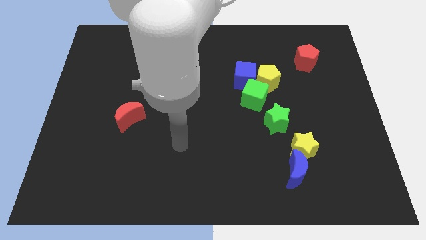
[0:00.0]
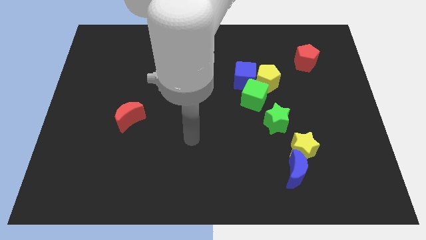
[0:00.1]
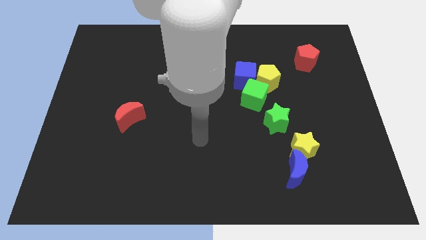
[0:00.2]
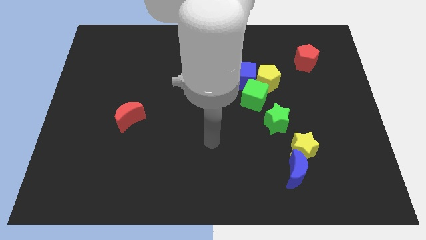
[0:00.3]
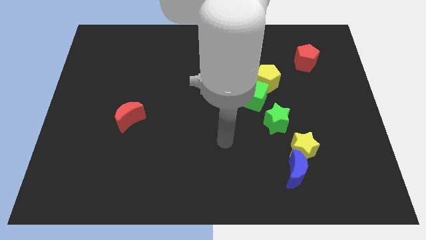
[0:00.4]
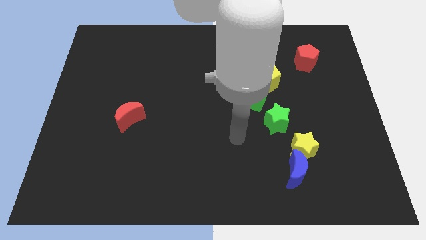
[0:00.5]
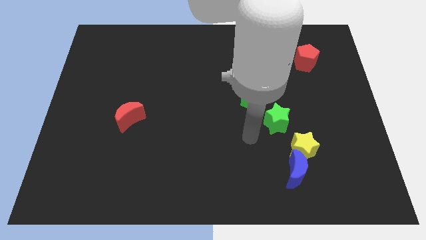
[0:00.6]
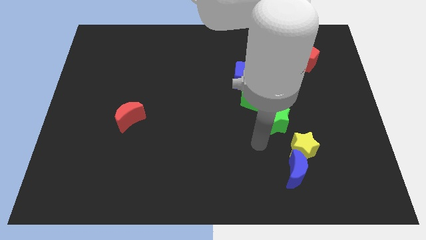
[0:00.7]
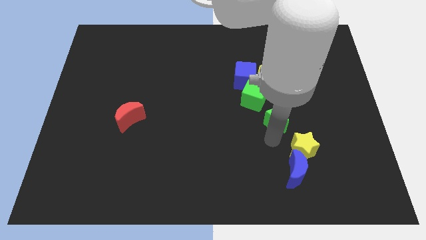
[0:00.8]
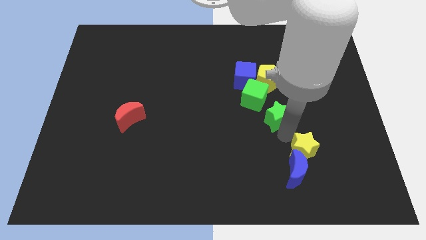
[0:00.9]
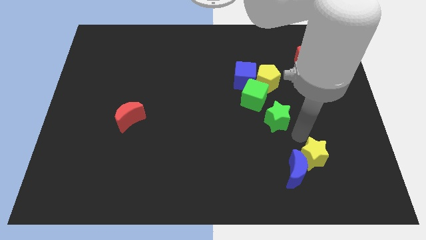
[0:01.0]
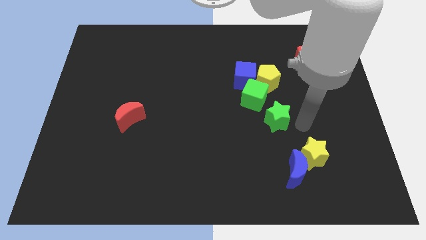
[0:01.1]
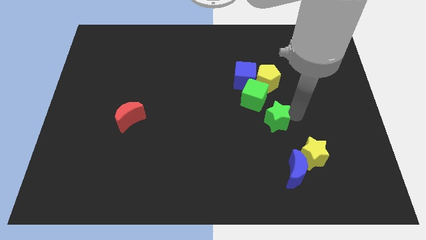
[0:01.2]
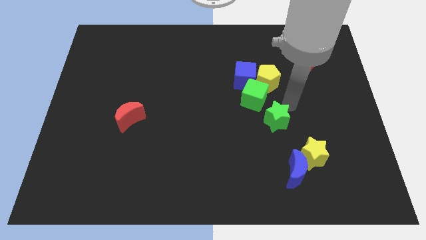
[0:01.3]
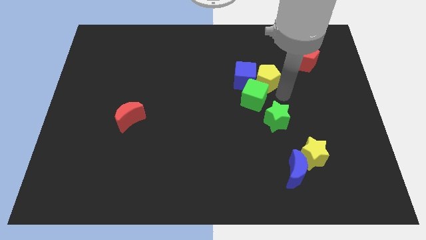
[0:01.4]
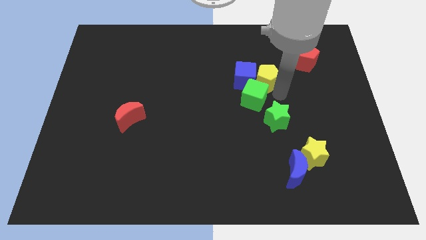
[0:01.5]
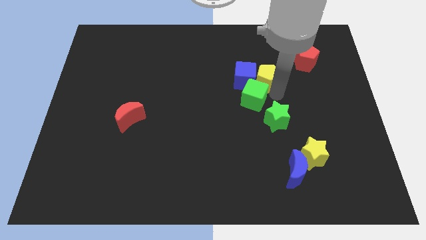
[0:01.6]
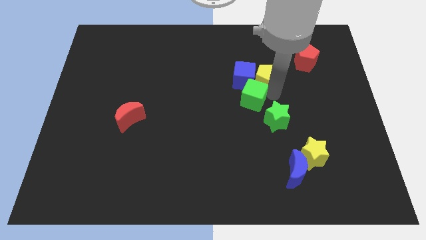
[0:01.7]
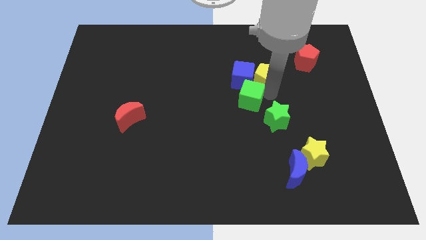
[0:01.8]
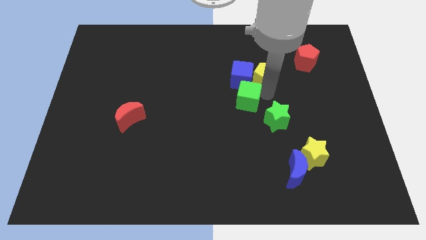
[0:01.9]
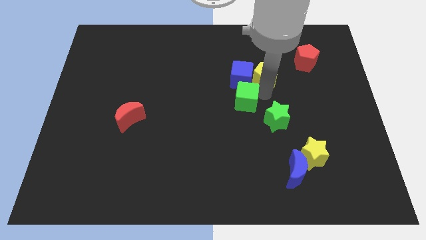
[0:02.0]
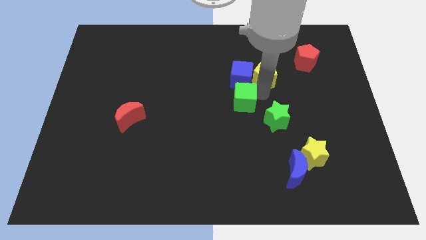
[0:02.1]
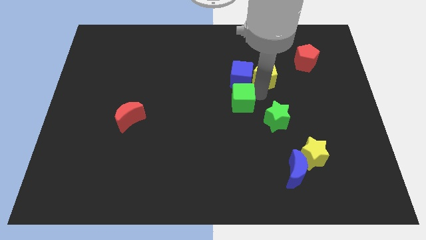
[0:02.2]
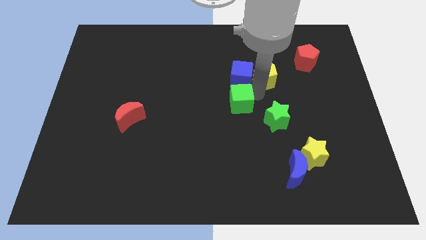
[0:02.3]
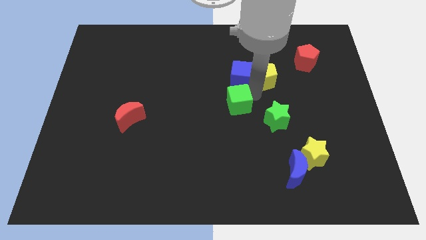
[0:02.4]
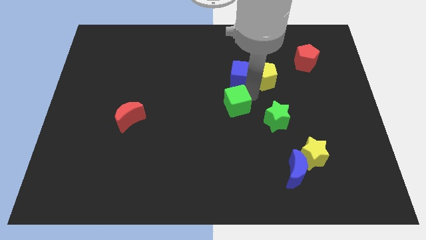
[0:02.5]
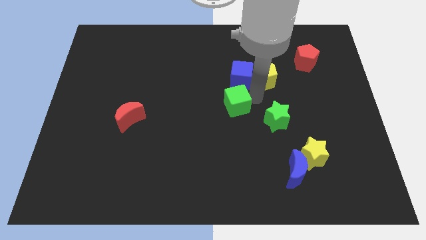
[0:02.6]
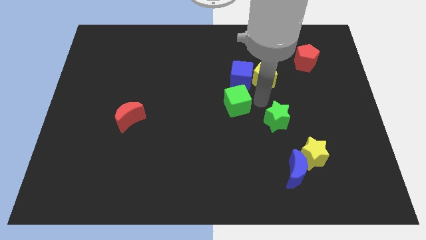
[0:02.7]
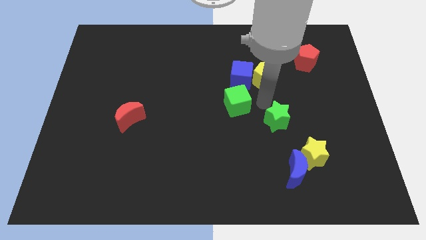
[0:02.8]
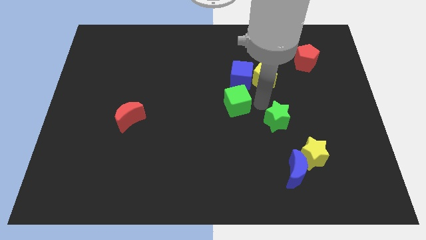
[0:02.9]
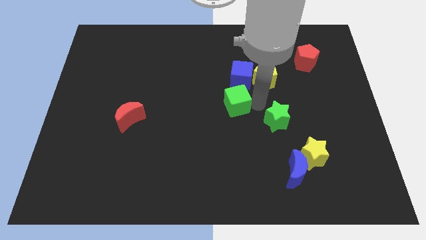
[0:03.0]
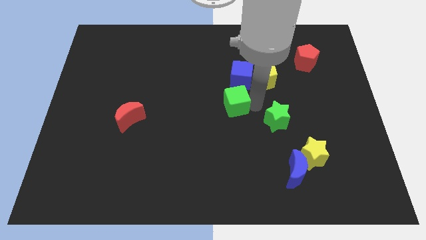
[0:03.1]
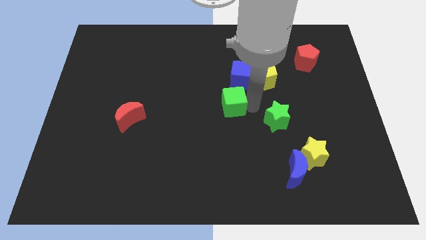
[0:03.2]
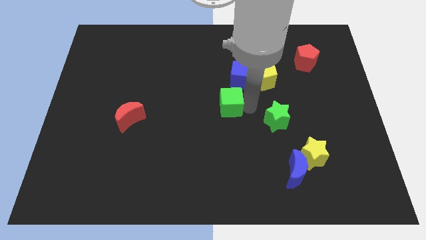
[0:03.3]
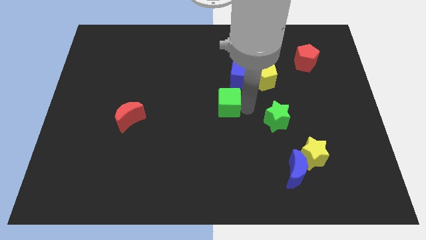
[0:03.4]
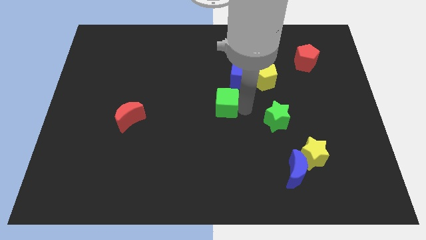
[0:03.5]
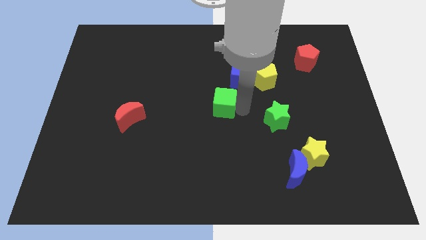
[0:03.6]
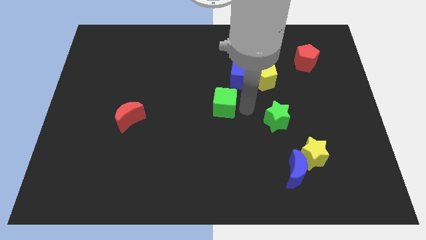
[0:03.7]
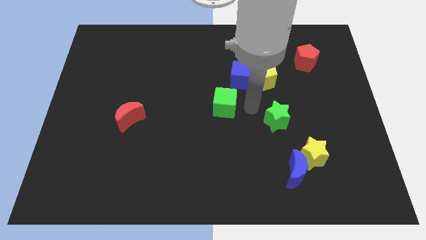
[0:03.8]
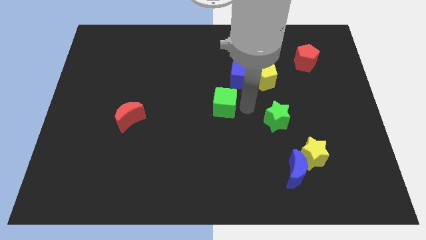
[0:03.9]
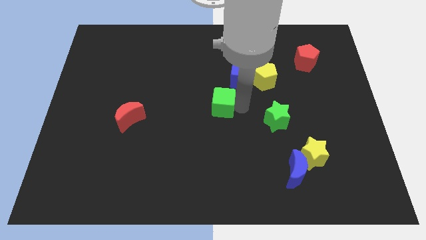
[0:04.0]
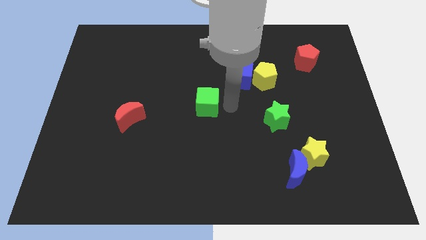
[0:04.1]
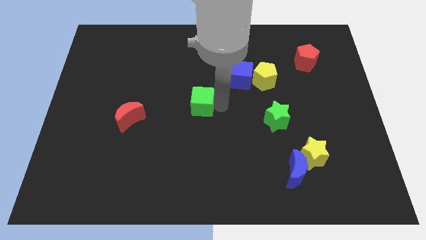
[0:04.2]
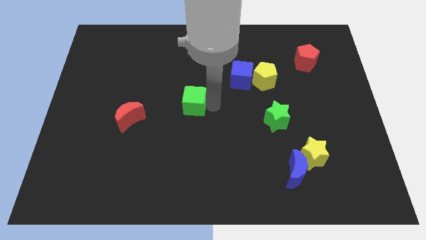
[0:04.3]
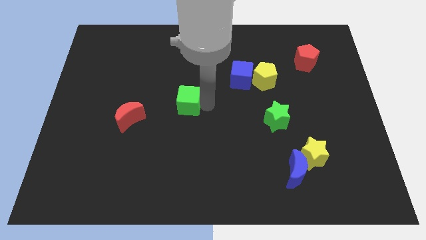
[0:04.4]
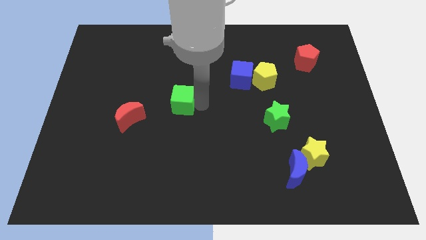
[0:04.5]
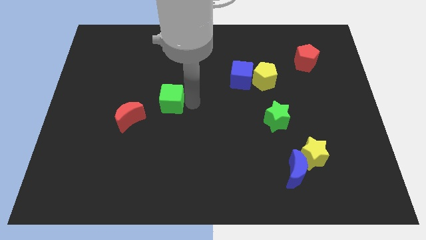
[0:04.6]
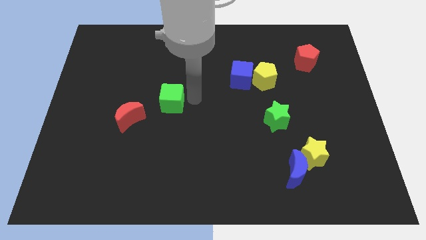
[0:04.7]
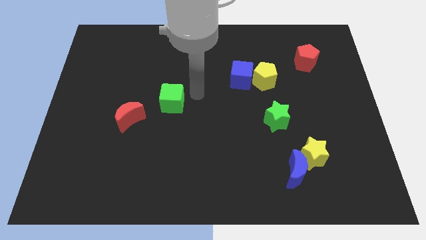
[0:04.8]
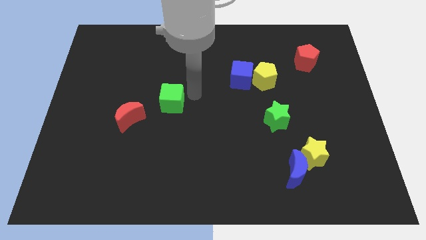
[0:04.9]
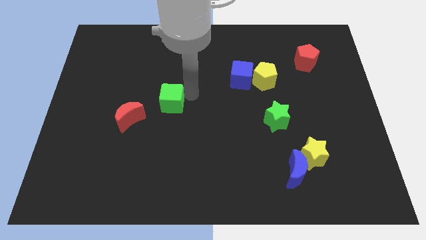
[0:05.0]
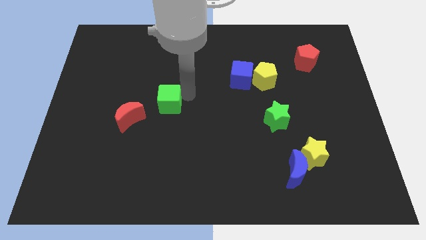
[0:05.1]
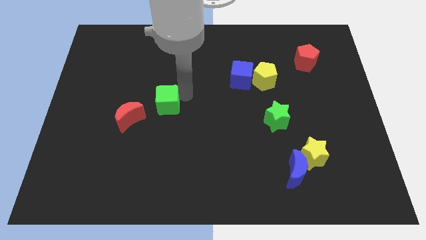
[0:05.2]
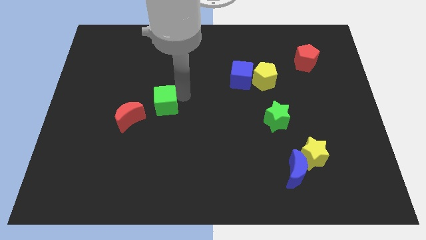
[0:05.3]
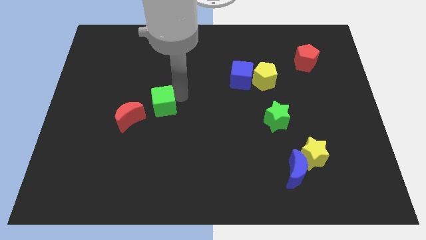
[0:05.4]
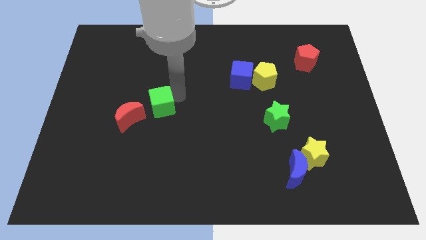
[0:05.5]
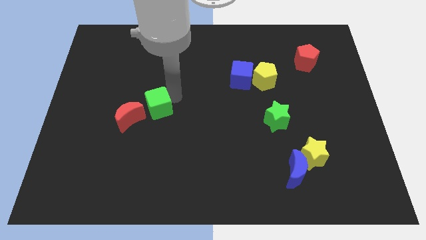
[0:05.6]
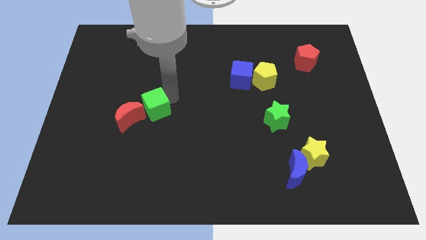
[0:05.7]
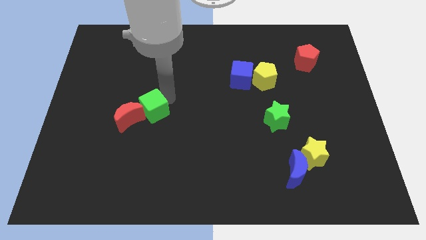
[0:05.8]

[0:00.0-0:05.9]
put the green cube to the red moon

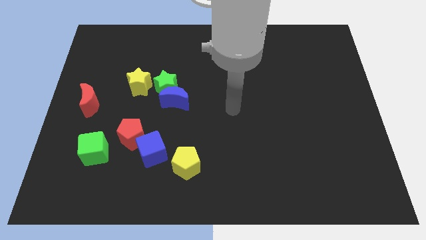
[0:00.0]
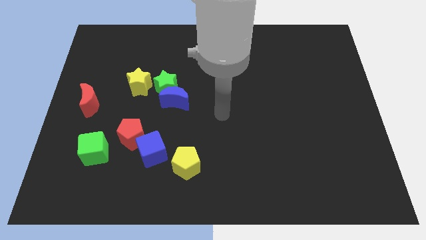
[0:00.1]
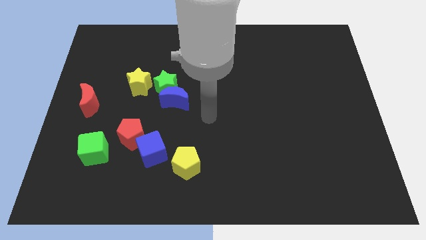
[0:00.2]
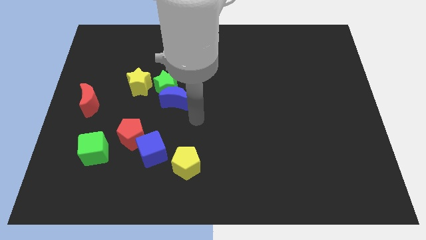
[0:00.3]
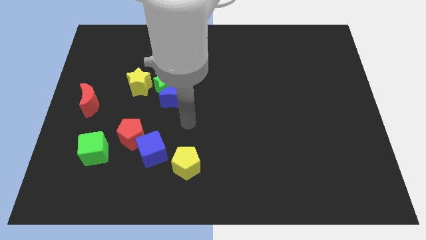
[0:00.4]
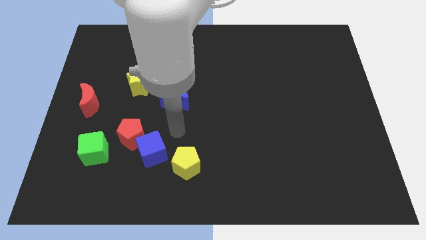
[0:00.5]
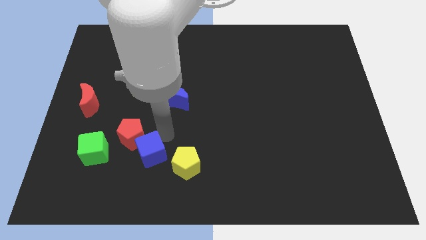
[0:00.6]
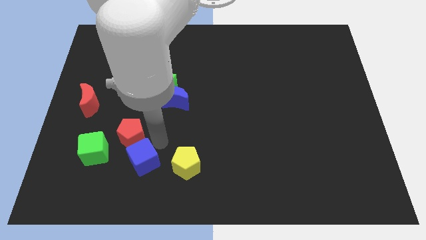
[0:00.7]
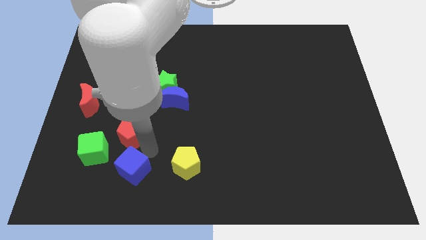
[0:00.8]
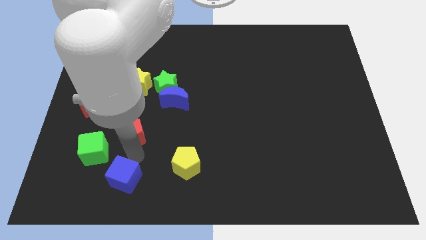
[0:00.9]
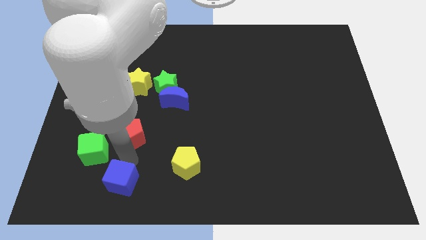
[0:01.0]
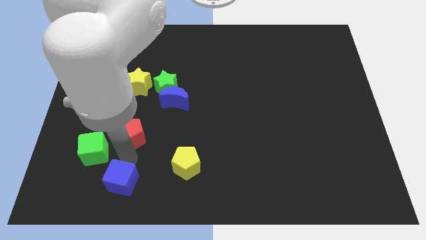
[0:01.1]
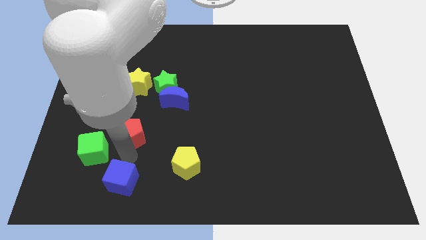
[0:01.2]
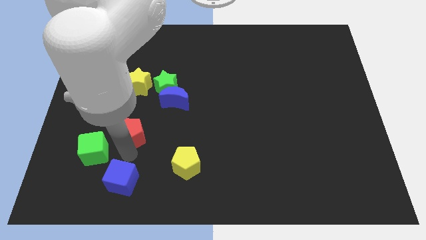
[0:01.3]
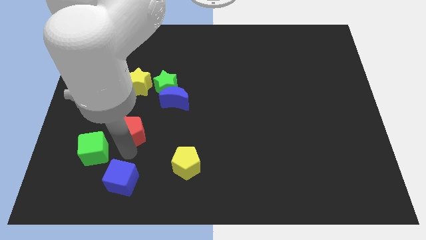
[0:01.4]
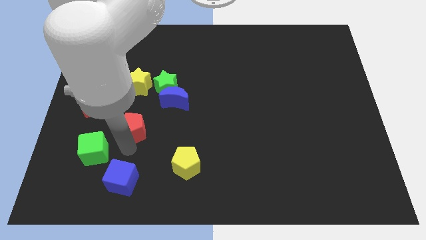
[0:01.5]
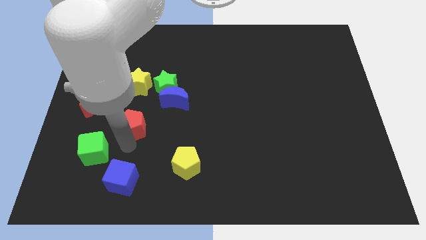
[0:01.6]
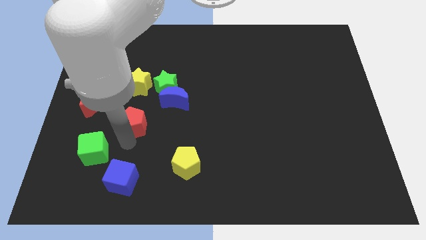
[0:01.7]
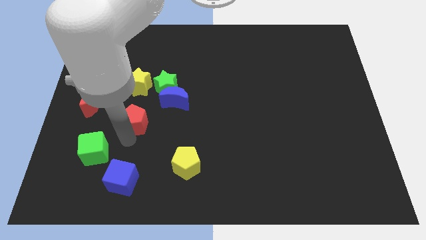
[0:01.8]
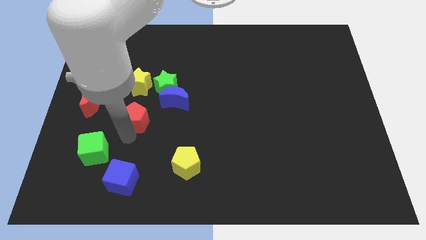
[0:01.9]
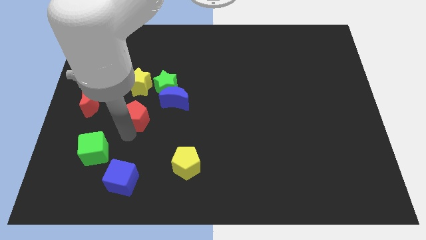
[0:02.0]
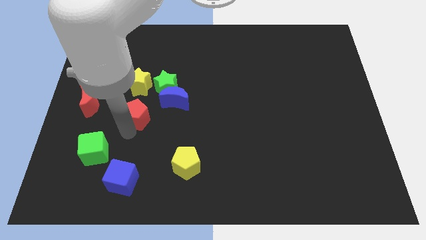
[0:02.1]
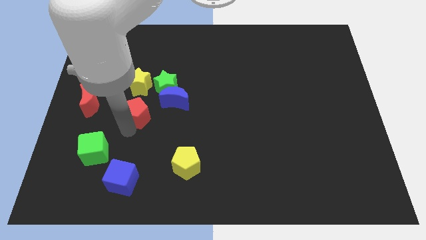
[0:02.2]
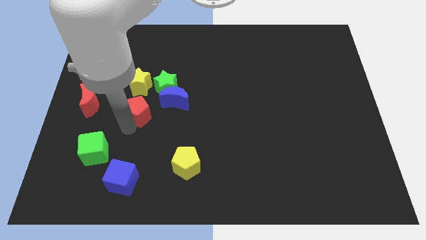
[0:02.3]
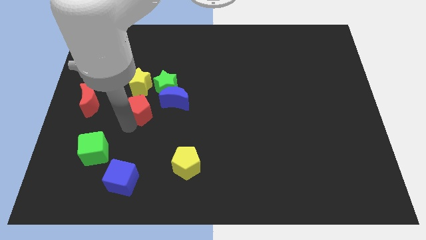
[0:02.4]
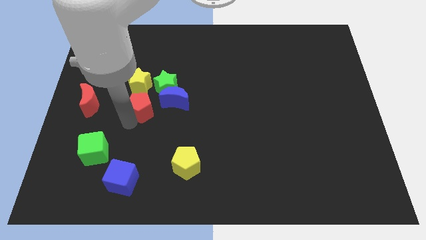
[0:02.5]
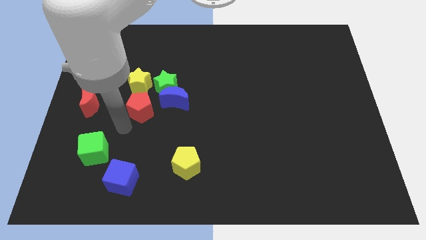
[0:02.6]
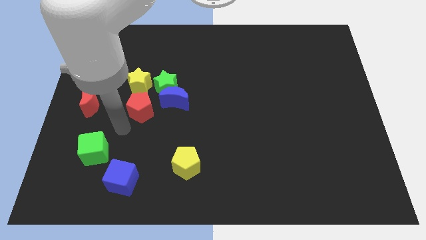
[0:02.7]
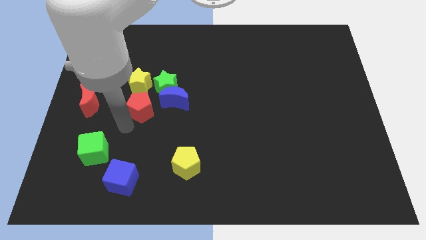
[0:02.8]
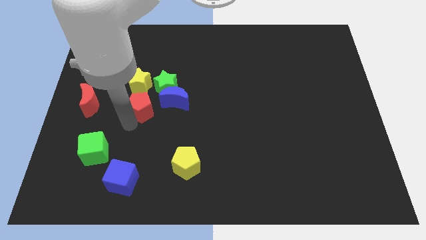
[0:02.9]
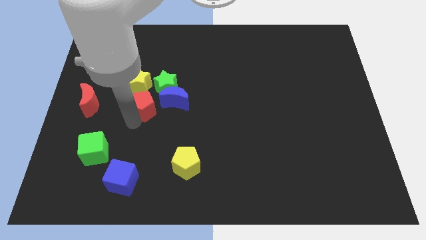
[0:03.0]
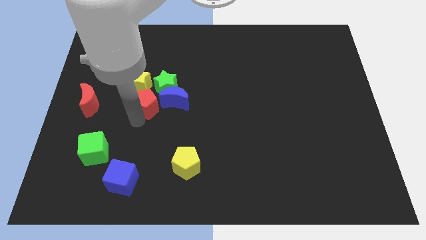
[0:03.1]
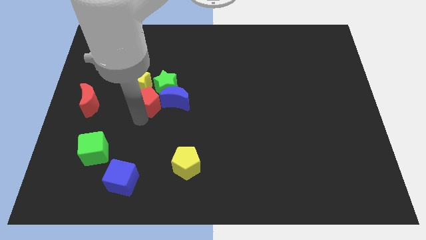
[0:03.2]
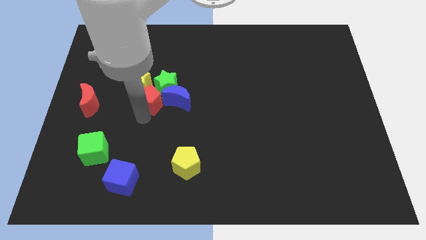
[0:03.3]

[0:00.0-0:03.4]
push the red pentagon towards the green star
